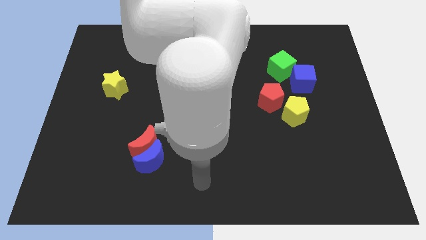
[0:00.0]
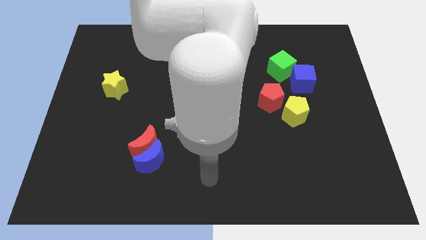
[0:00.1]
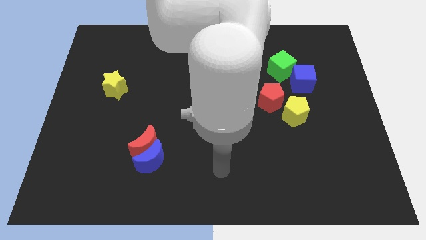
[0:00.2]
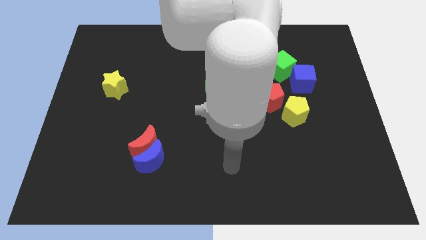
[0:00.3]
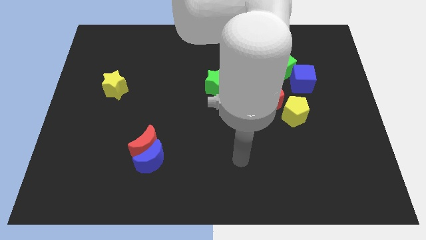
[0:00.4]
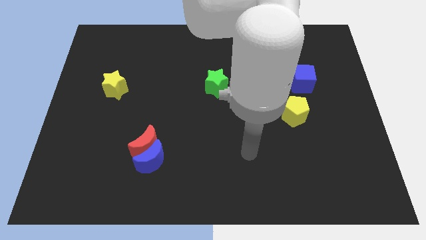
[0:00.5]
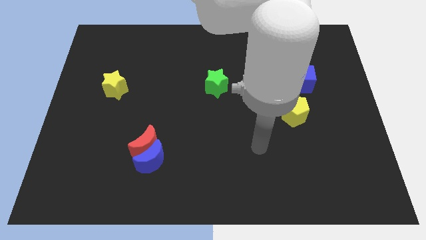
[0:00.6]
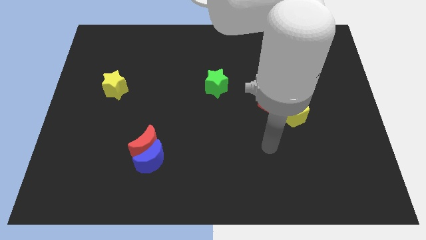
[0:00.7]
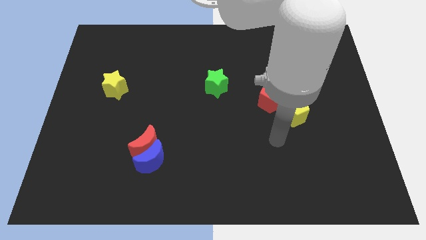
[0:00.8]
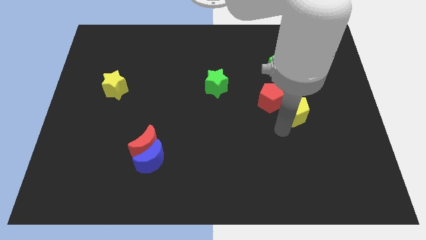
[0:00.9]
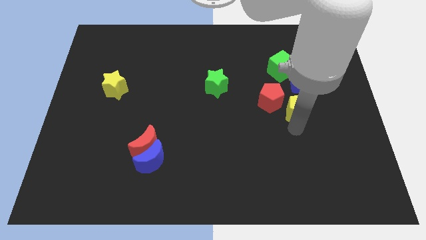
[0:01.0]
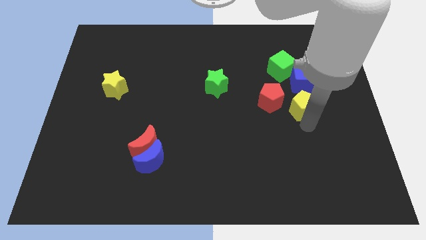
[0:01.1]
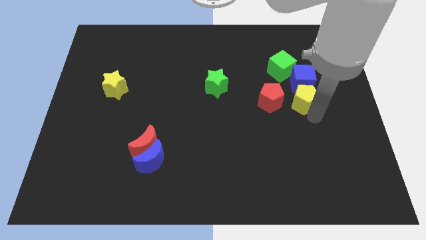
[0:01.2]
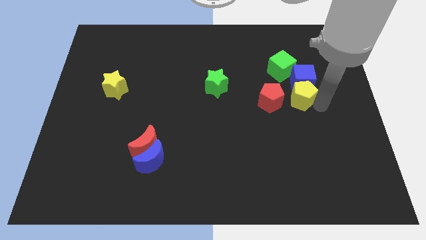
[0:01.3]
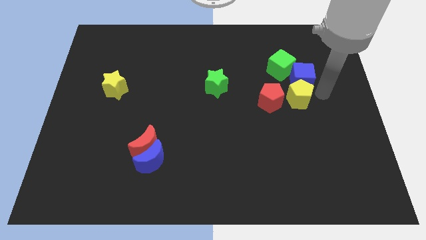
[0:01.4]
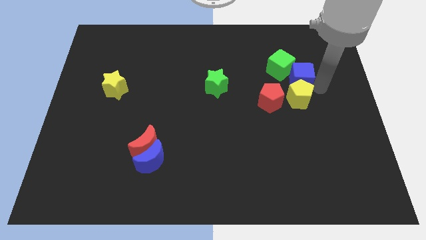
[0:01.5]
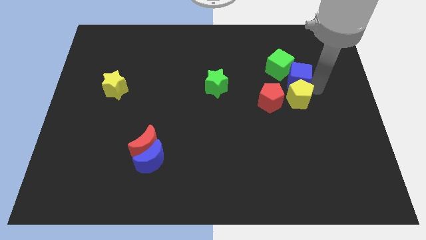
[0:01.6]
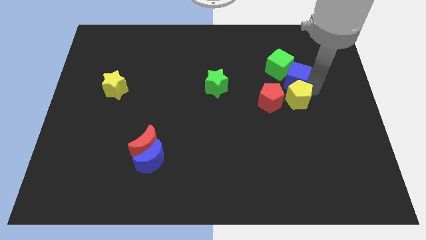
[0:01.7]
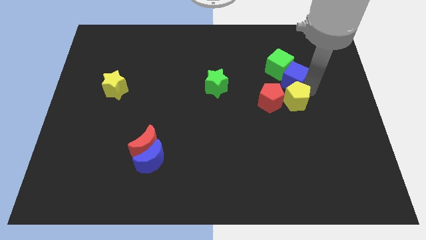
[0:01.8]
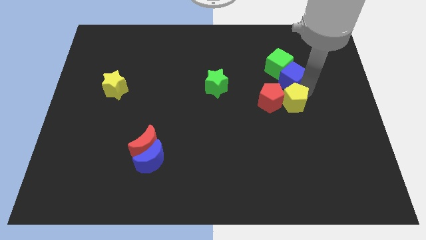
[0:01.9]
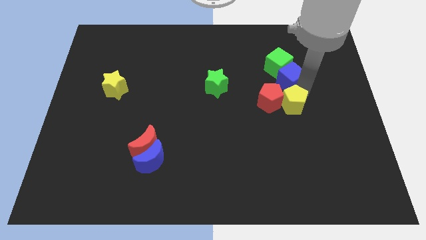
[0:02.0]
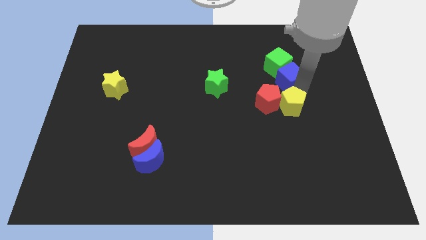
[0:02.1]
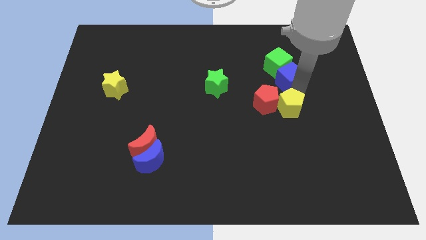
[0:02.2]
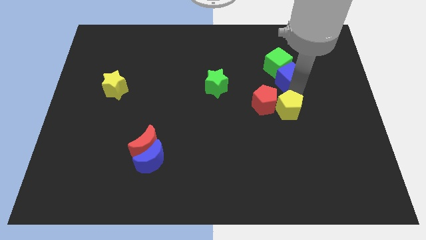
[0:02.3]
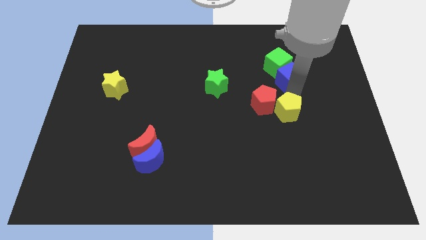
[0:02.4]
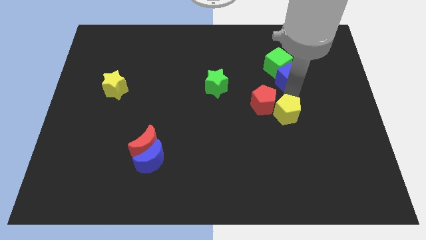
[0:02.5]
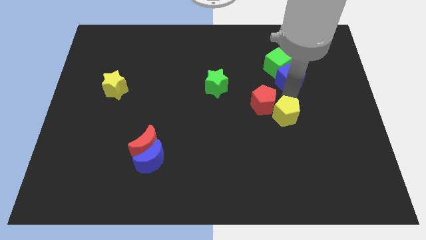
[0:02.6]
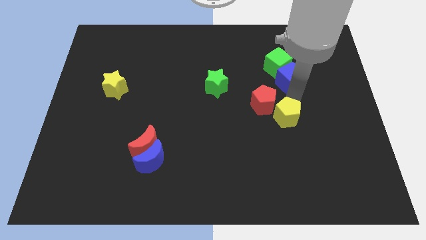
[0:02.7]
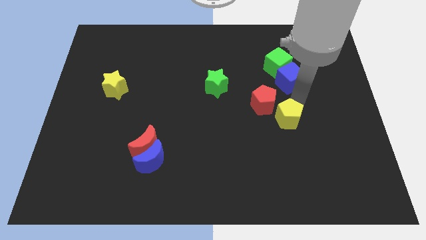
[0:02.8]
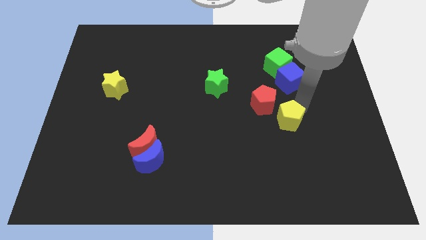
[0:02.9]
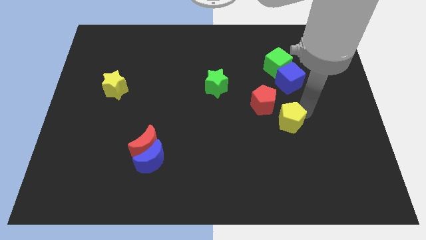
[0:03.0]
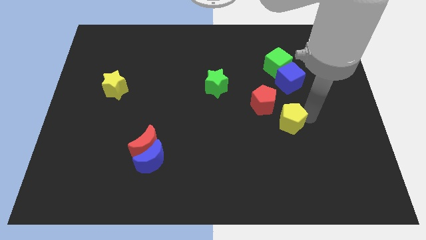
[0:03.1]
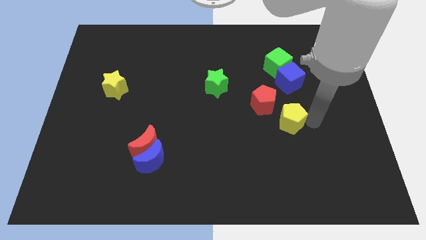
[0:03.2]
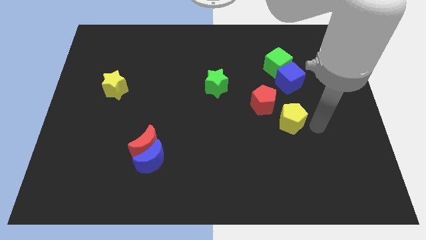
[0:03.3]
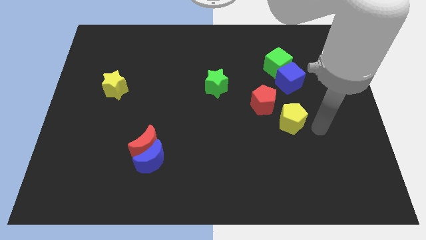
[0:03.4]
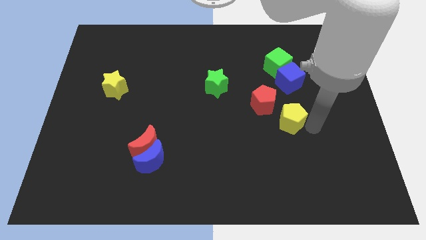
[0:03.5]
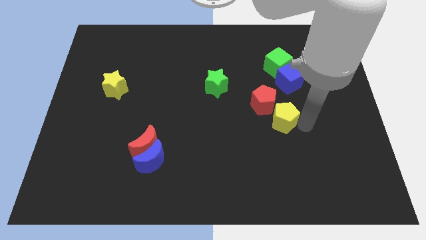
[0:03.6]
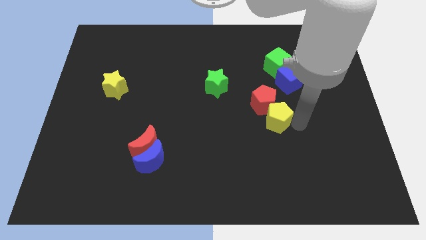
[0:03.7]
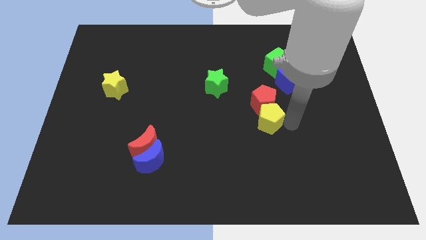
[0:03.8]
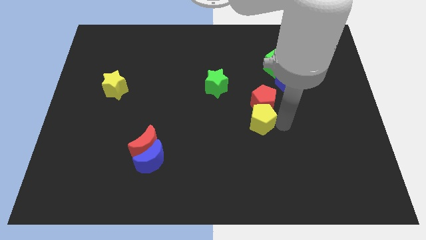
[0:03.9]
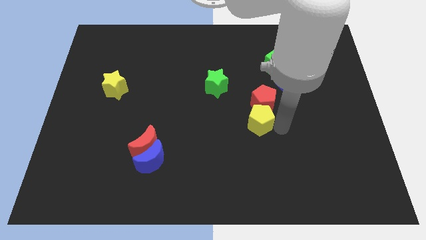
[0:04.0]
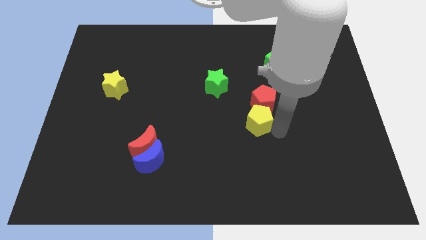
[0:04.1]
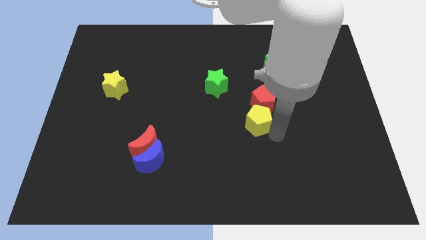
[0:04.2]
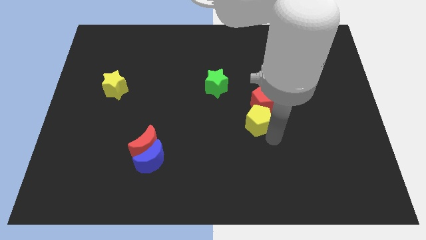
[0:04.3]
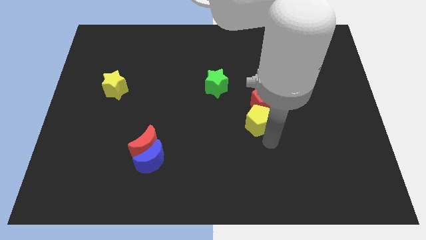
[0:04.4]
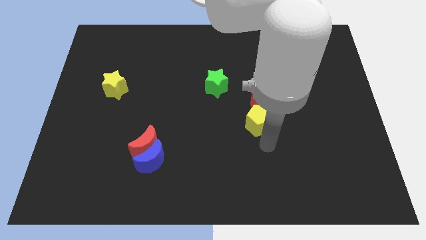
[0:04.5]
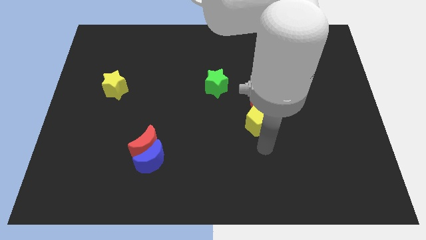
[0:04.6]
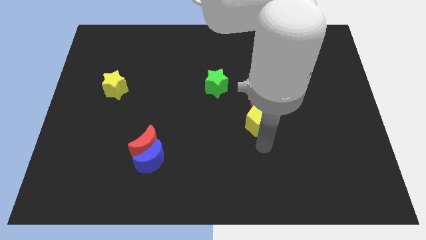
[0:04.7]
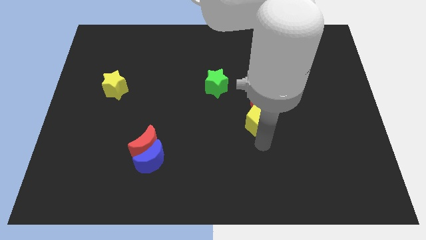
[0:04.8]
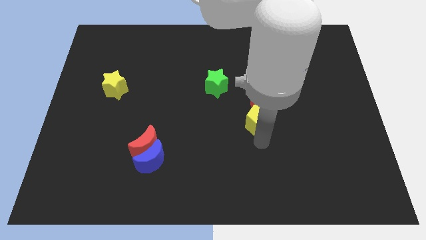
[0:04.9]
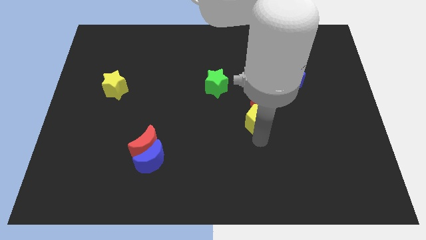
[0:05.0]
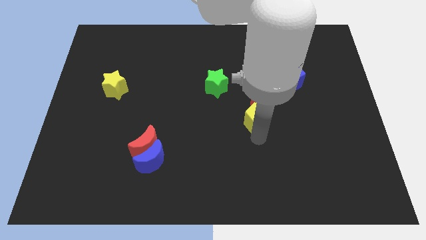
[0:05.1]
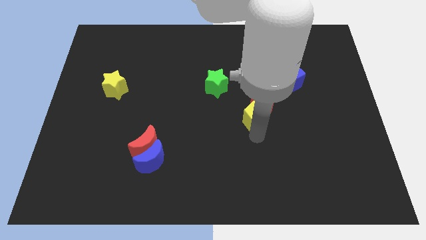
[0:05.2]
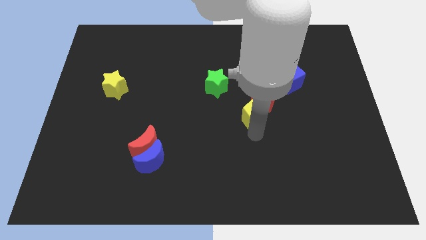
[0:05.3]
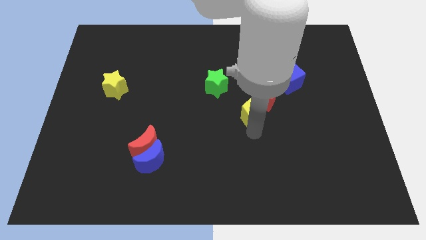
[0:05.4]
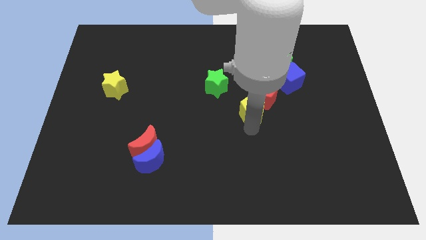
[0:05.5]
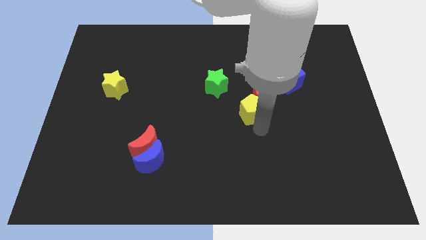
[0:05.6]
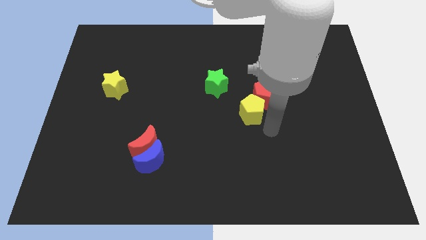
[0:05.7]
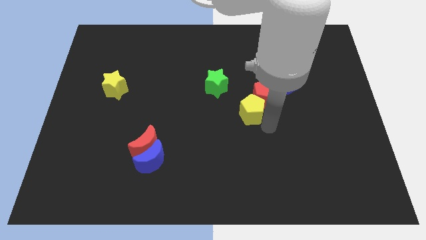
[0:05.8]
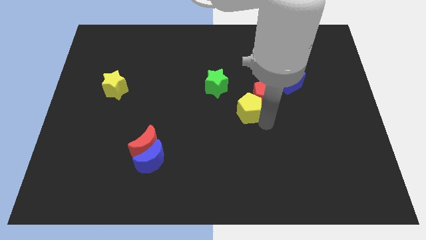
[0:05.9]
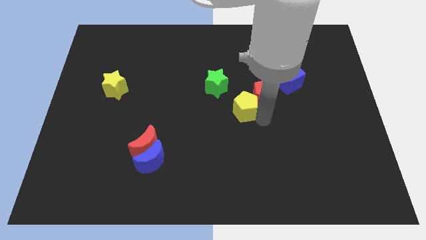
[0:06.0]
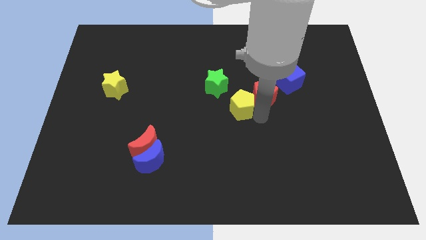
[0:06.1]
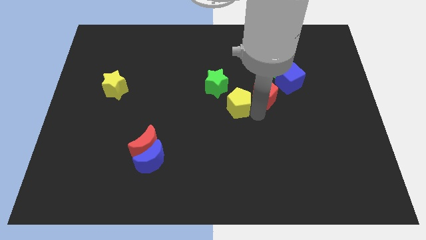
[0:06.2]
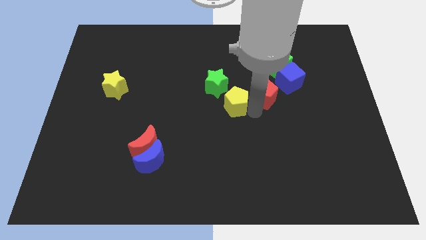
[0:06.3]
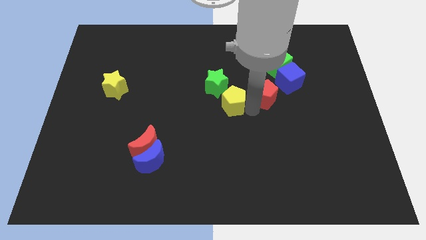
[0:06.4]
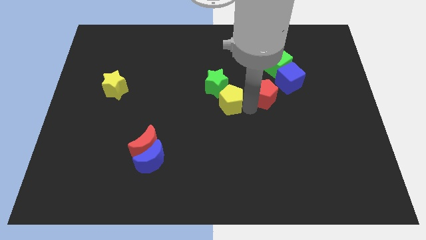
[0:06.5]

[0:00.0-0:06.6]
put the yellow pentagon close to the green star

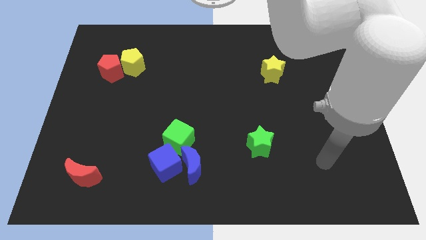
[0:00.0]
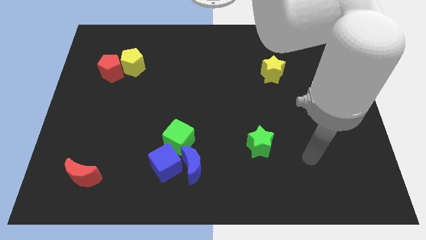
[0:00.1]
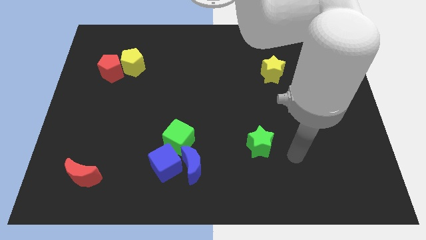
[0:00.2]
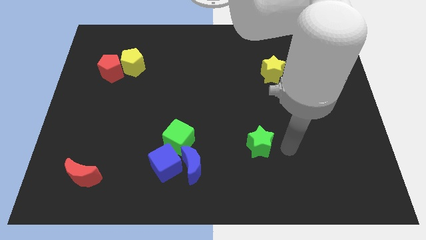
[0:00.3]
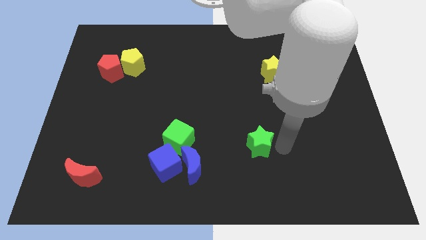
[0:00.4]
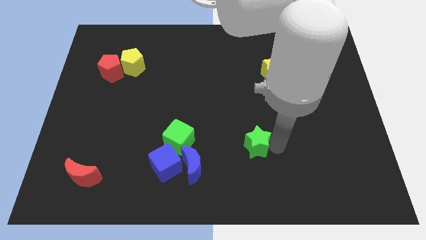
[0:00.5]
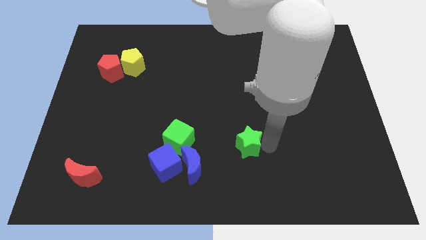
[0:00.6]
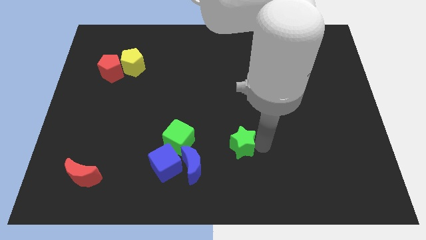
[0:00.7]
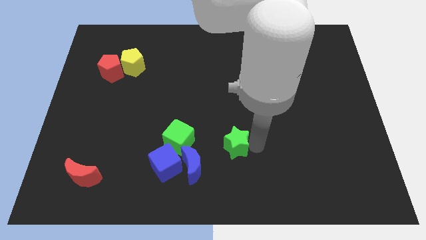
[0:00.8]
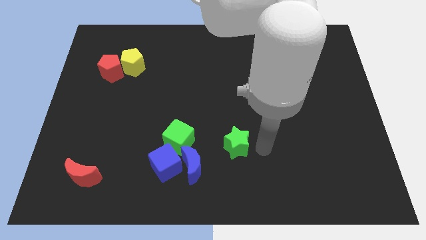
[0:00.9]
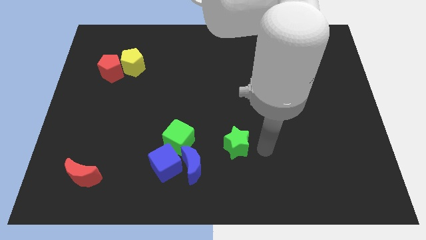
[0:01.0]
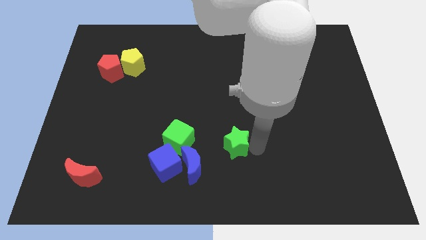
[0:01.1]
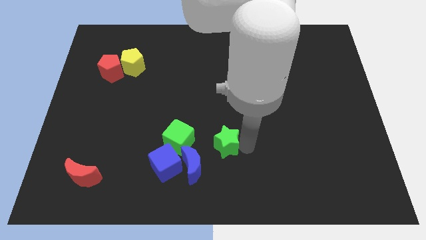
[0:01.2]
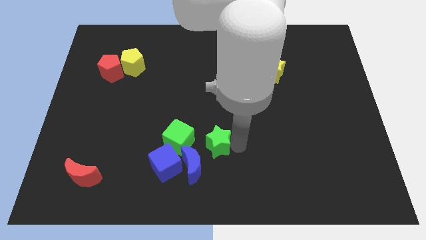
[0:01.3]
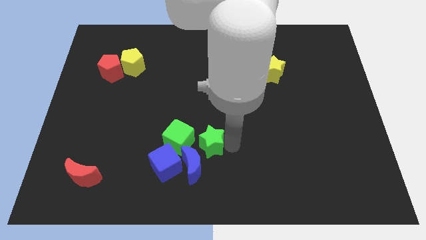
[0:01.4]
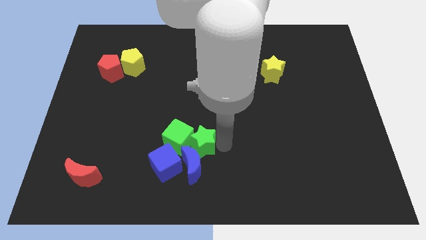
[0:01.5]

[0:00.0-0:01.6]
move the green star close to the green cube
